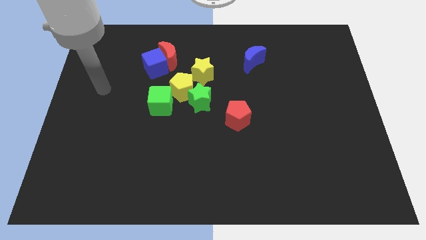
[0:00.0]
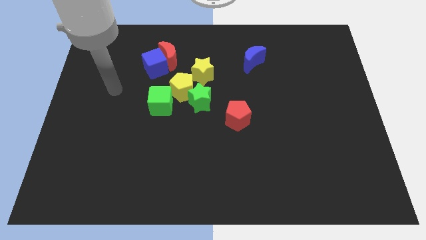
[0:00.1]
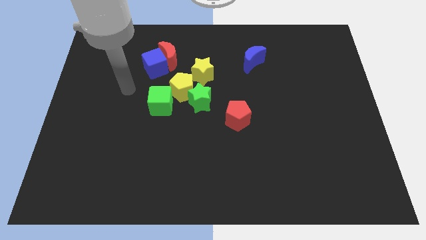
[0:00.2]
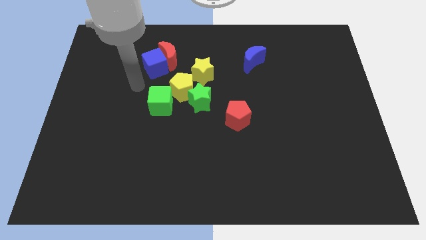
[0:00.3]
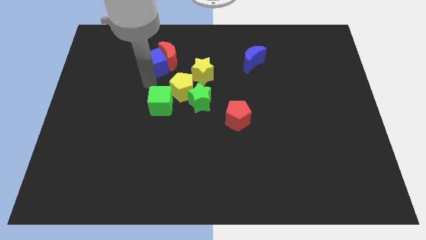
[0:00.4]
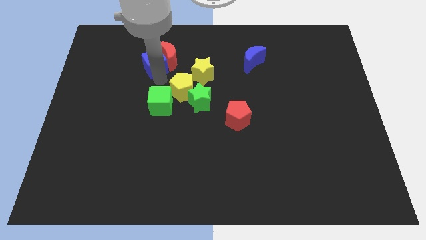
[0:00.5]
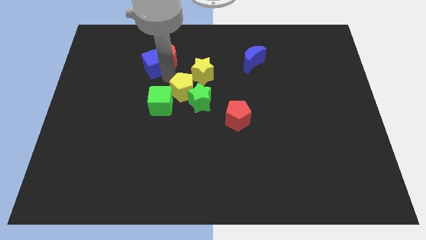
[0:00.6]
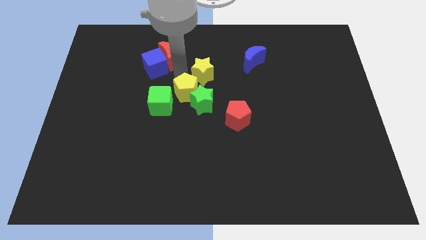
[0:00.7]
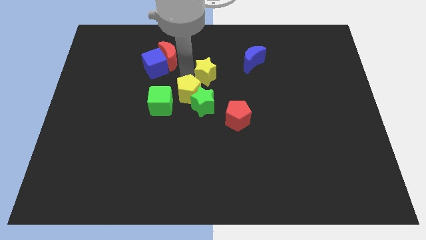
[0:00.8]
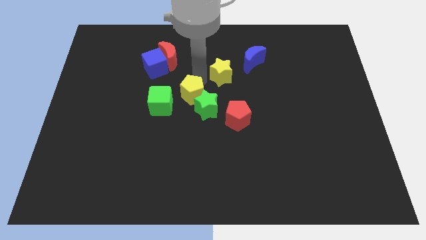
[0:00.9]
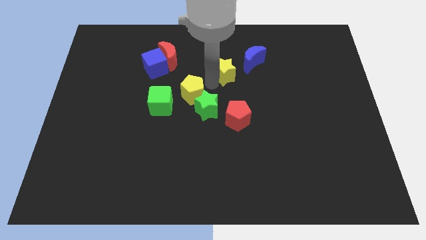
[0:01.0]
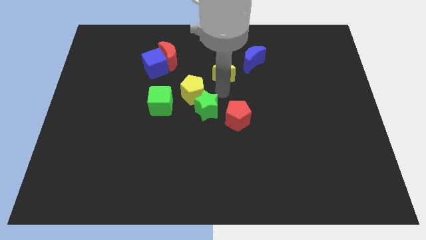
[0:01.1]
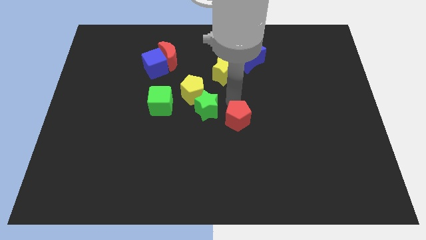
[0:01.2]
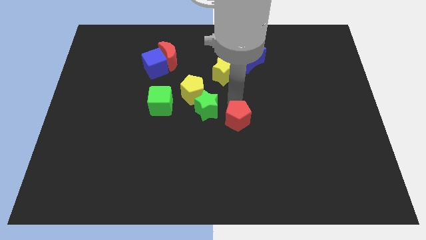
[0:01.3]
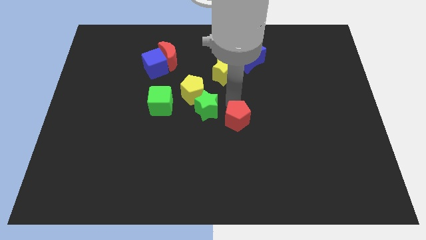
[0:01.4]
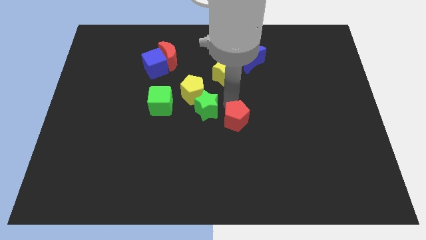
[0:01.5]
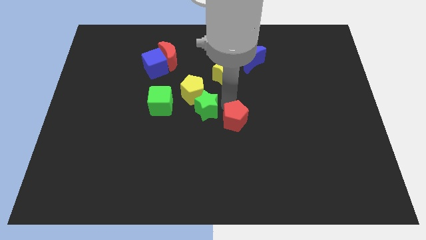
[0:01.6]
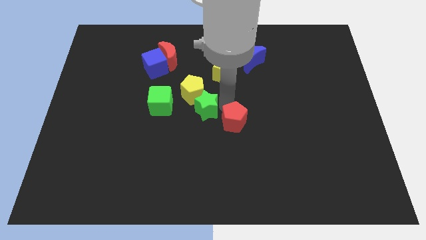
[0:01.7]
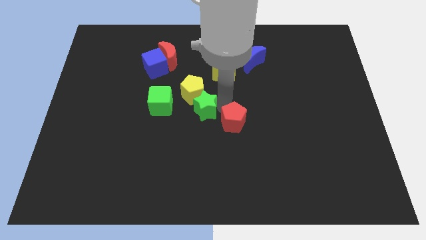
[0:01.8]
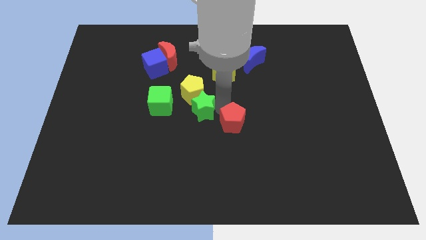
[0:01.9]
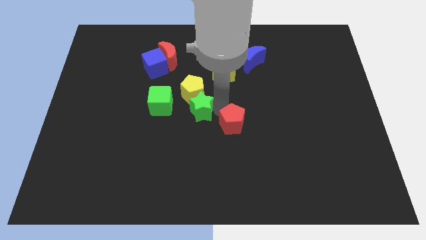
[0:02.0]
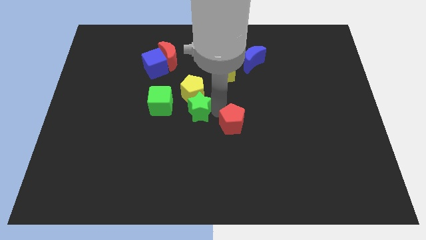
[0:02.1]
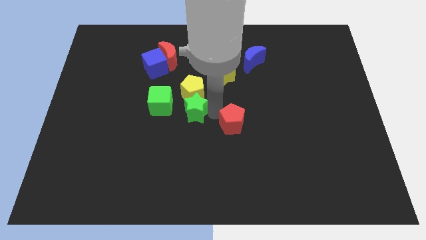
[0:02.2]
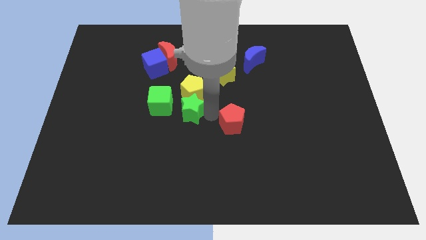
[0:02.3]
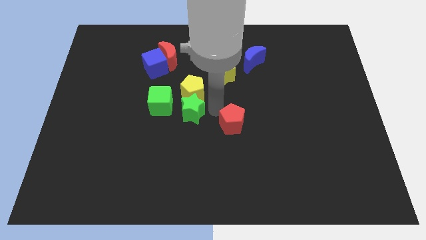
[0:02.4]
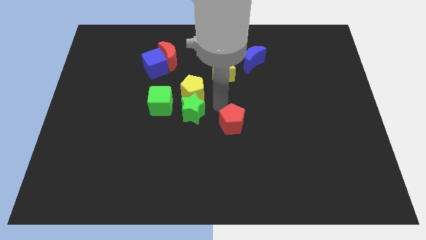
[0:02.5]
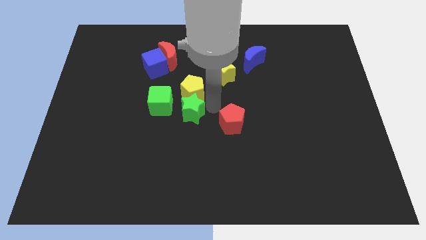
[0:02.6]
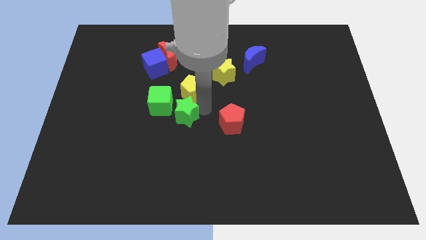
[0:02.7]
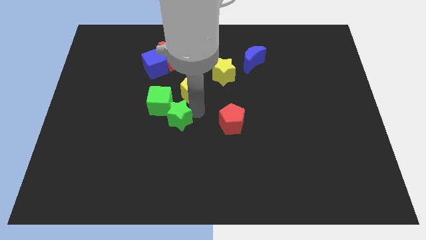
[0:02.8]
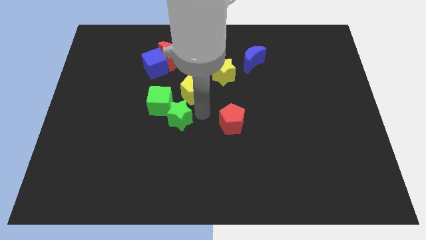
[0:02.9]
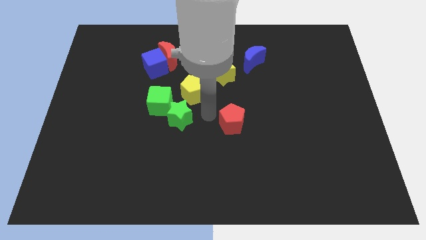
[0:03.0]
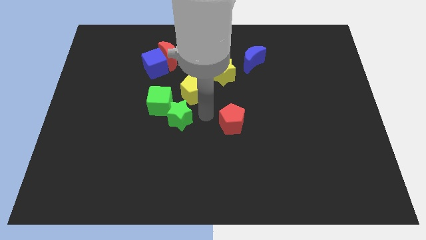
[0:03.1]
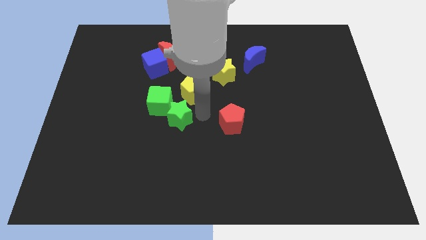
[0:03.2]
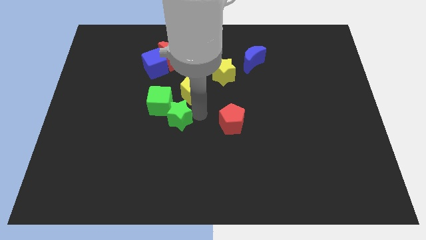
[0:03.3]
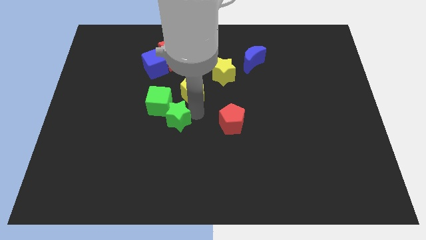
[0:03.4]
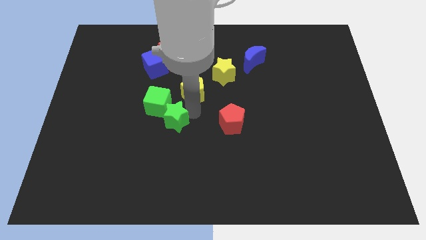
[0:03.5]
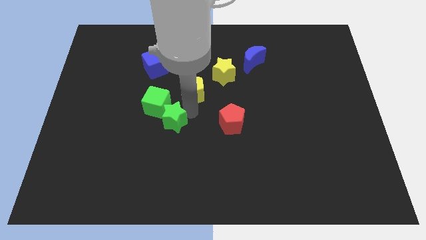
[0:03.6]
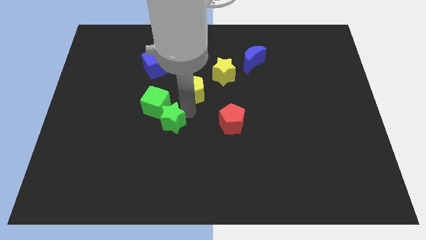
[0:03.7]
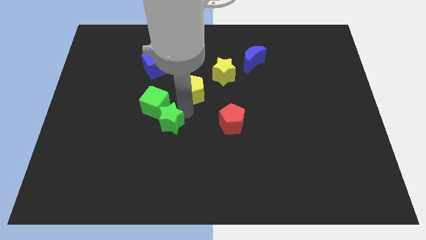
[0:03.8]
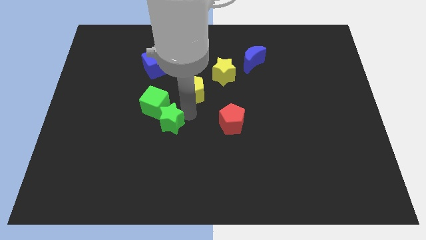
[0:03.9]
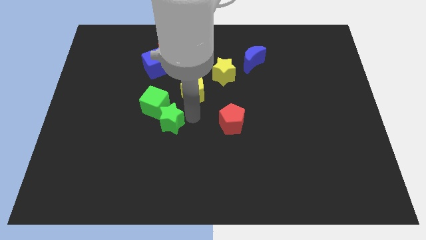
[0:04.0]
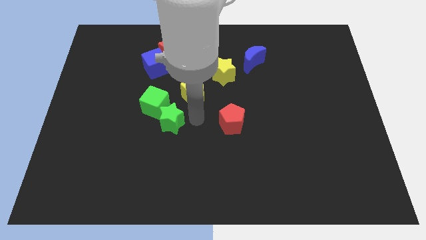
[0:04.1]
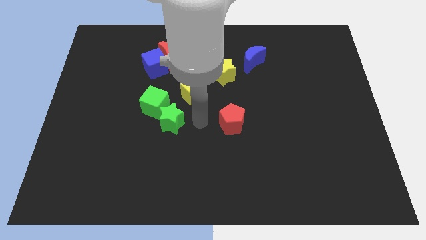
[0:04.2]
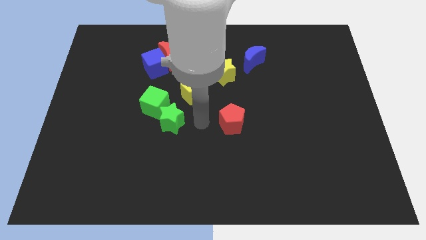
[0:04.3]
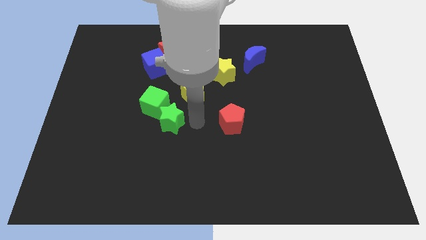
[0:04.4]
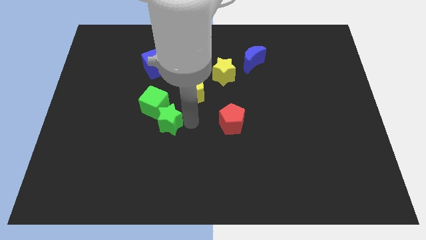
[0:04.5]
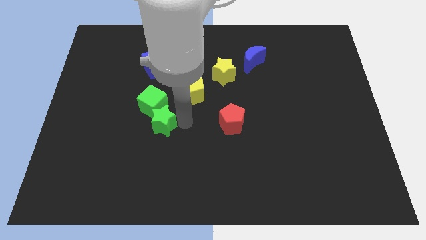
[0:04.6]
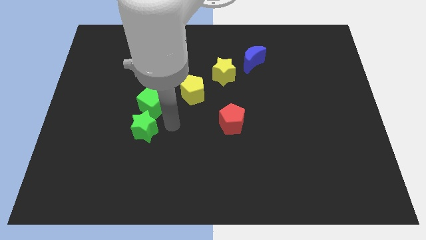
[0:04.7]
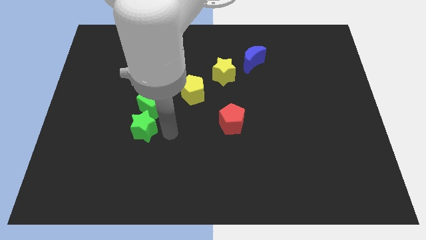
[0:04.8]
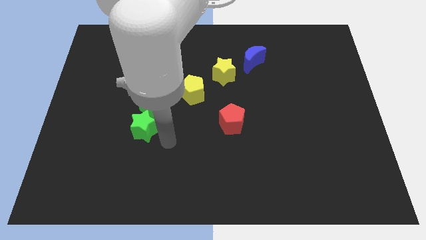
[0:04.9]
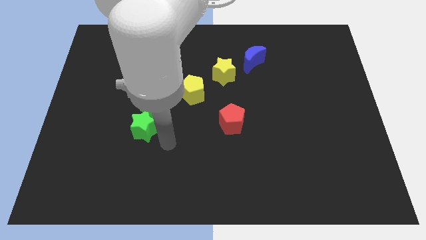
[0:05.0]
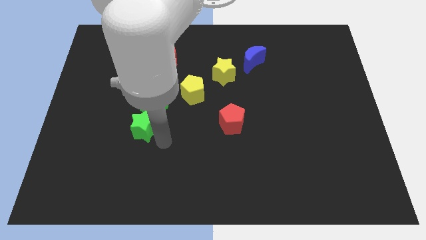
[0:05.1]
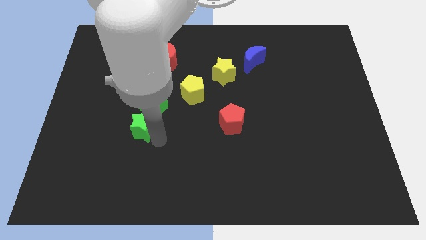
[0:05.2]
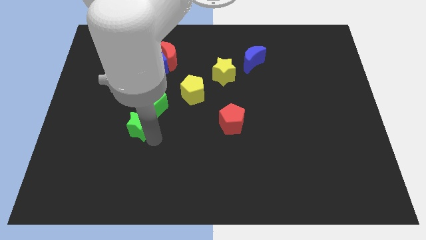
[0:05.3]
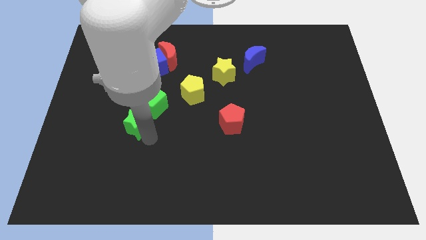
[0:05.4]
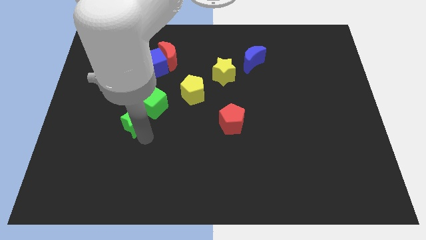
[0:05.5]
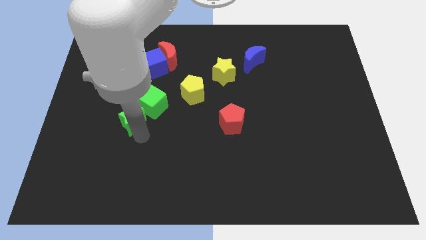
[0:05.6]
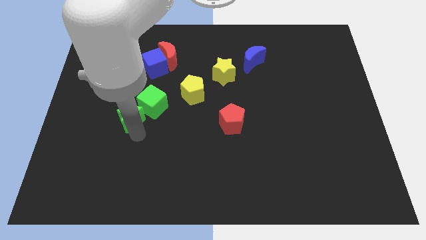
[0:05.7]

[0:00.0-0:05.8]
move the green star to the left of the green cube

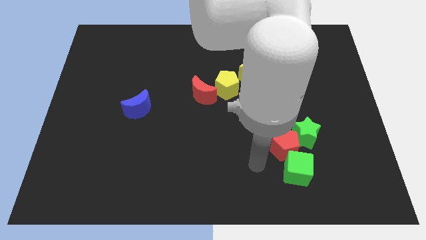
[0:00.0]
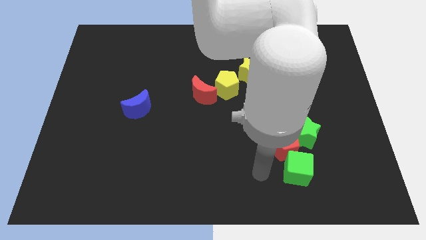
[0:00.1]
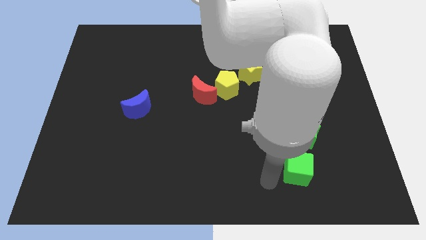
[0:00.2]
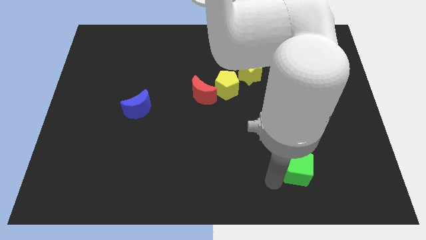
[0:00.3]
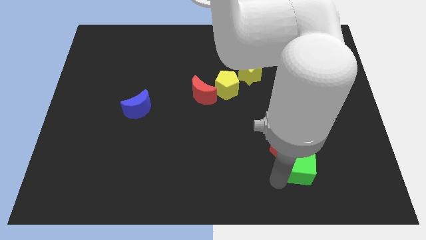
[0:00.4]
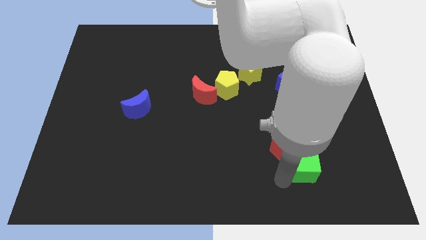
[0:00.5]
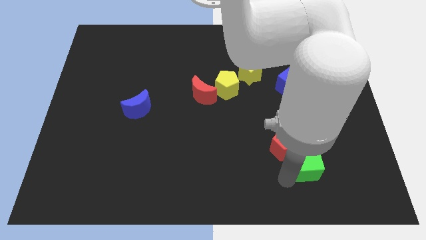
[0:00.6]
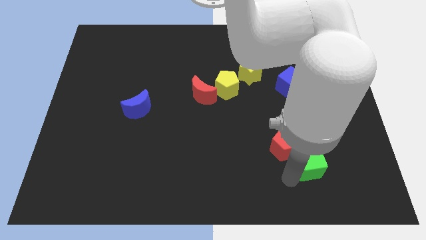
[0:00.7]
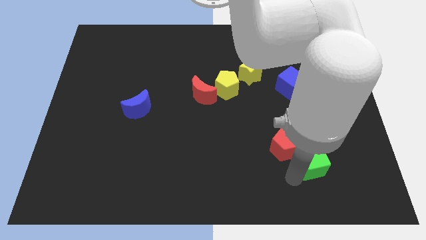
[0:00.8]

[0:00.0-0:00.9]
move the green cube to the bottom right side of the green star

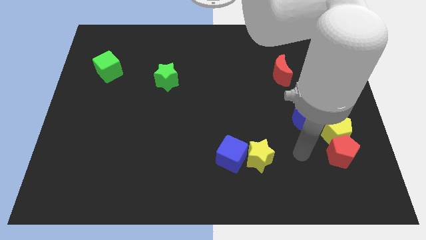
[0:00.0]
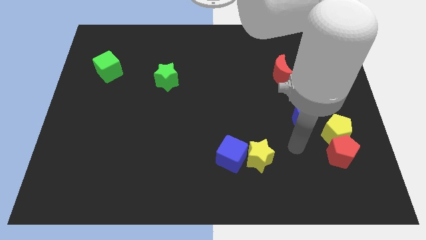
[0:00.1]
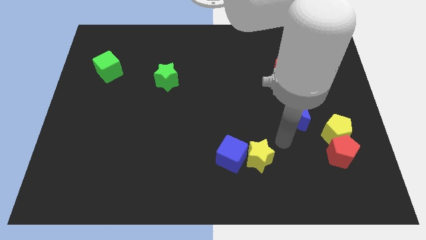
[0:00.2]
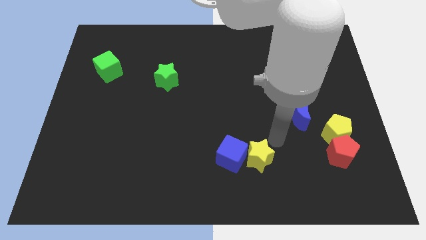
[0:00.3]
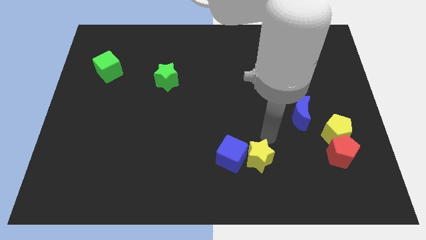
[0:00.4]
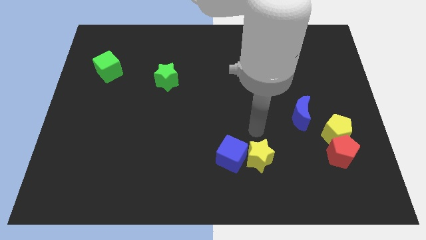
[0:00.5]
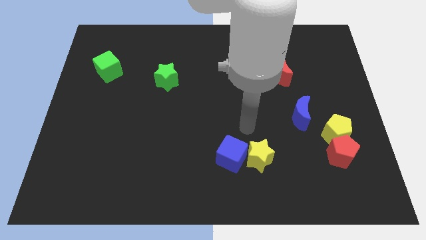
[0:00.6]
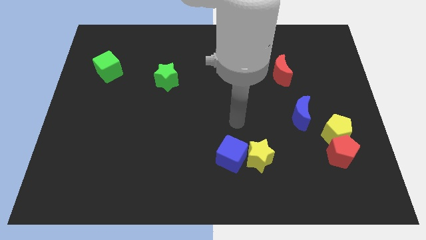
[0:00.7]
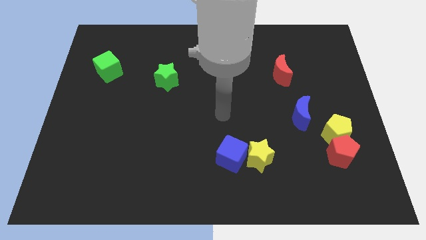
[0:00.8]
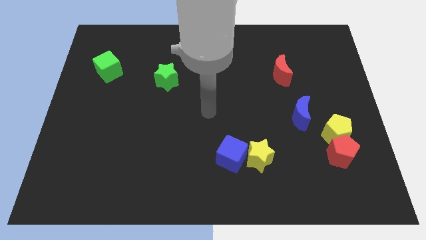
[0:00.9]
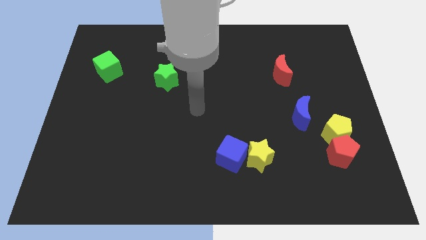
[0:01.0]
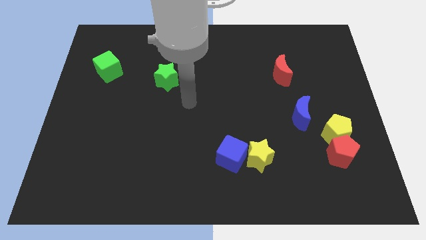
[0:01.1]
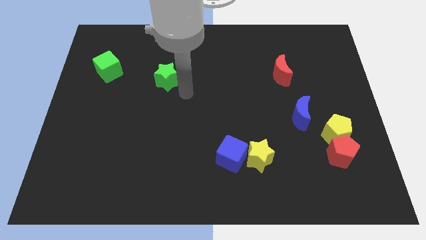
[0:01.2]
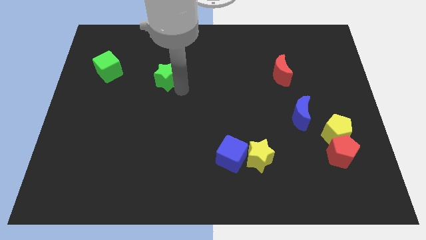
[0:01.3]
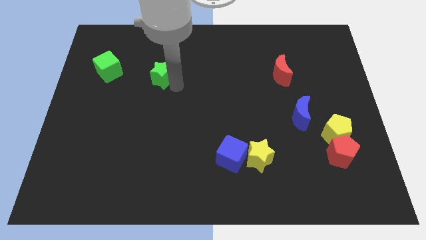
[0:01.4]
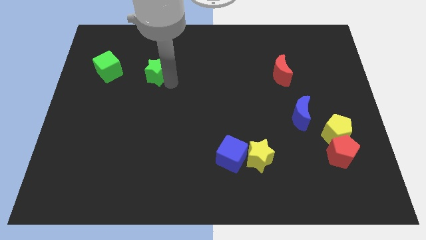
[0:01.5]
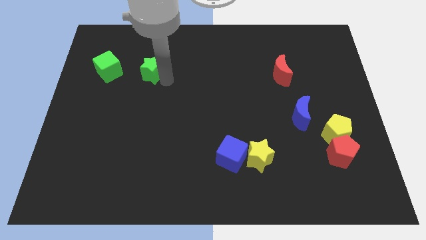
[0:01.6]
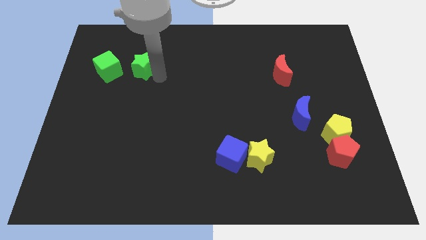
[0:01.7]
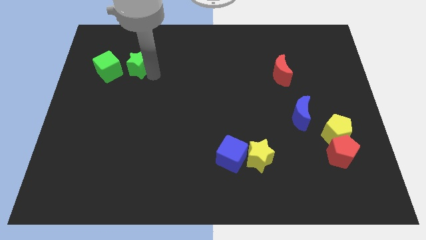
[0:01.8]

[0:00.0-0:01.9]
put the green star diagonally up and to the right of the green cube
